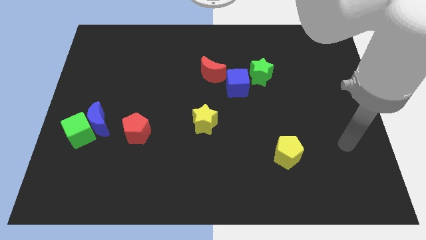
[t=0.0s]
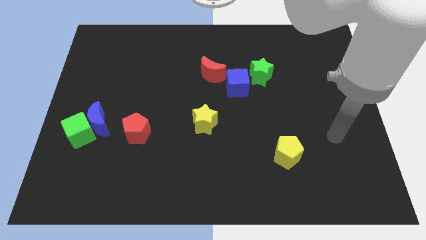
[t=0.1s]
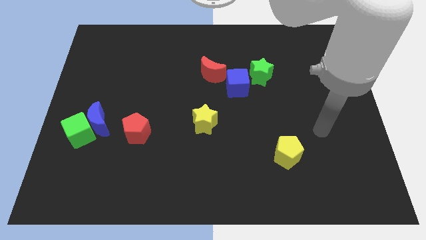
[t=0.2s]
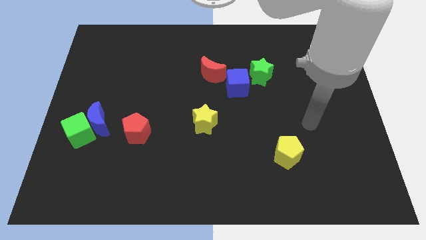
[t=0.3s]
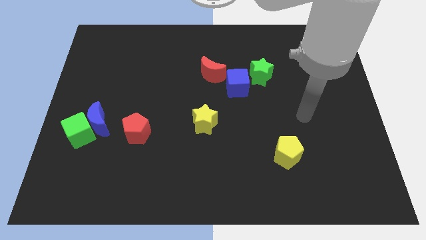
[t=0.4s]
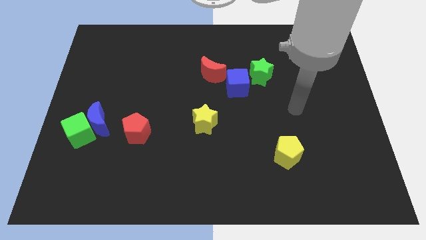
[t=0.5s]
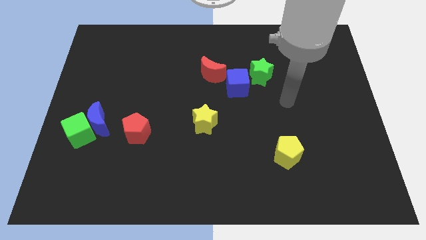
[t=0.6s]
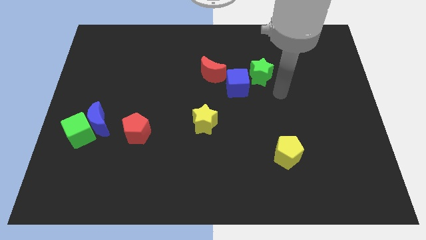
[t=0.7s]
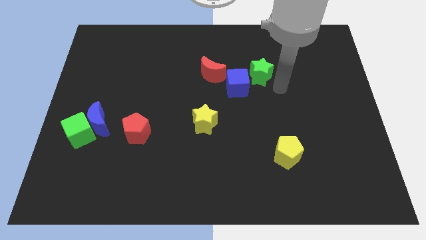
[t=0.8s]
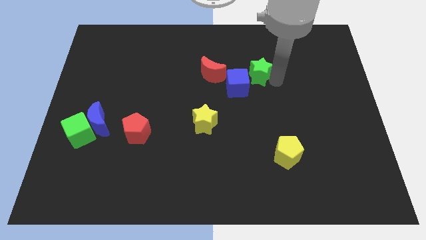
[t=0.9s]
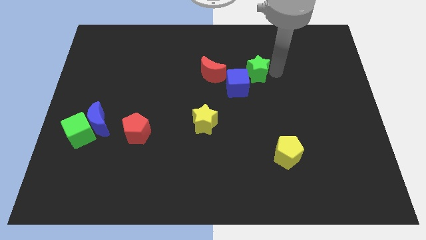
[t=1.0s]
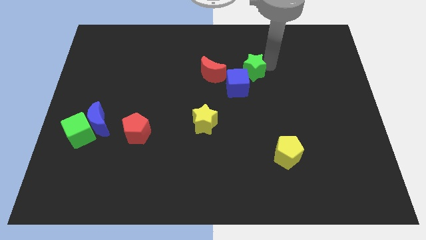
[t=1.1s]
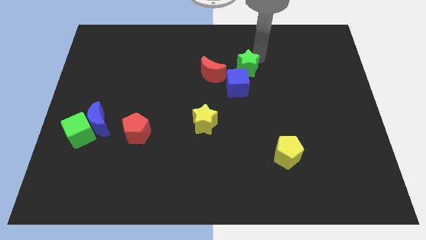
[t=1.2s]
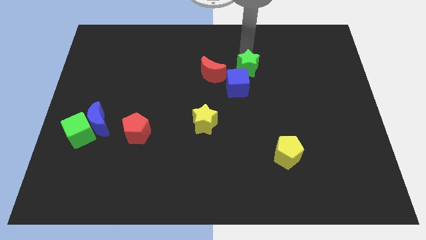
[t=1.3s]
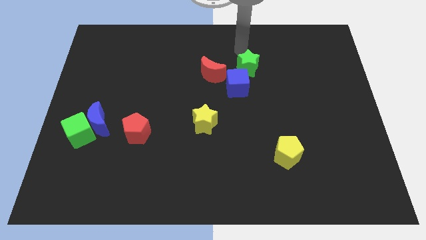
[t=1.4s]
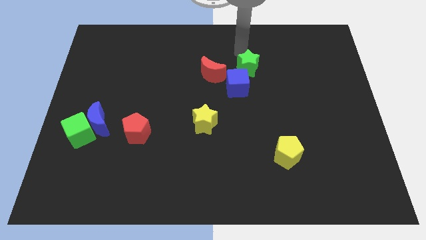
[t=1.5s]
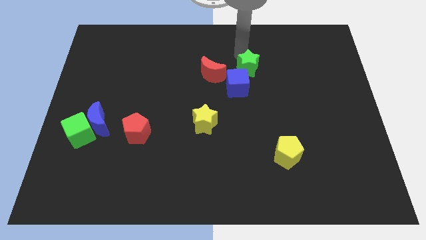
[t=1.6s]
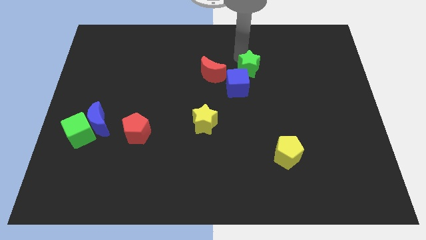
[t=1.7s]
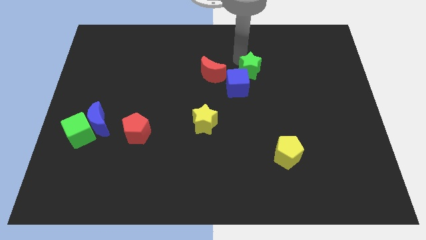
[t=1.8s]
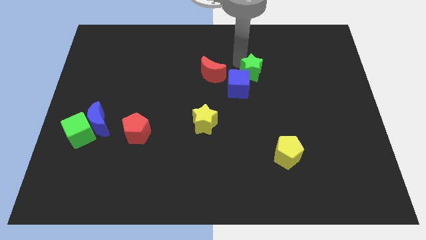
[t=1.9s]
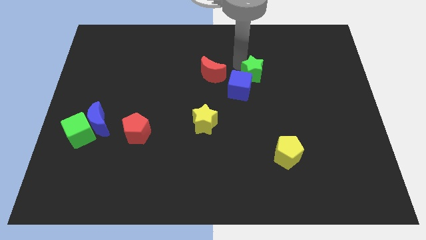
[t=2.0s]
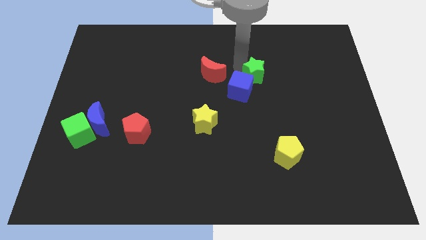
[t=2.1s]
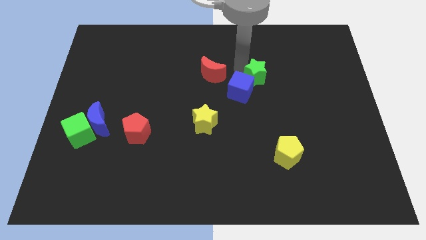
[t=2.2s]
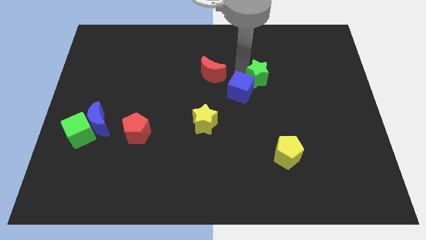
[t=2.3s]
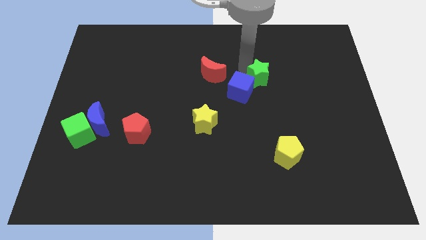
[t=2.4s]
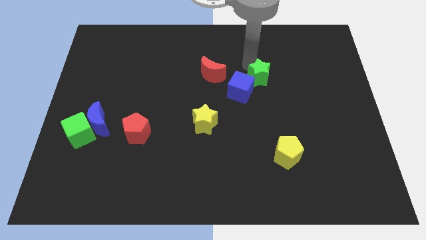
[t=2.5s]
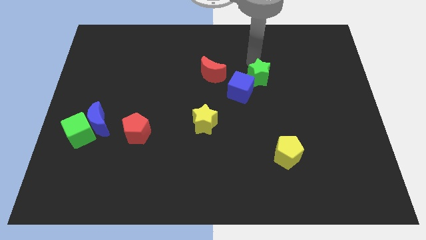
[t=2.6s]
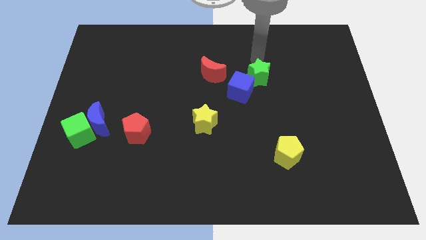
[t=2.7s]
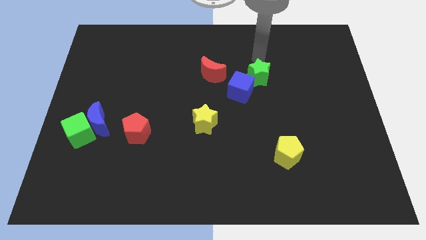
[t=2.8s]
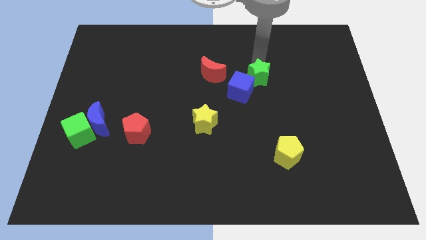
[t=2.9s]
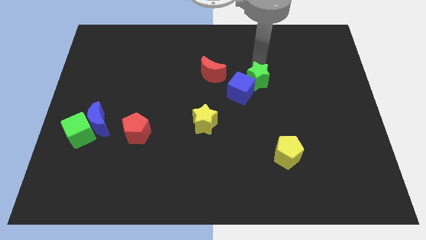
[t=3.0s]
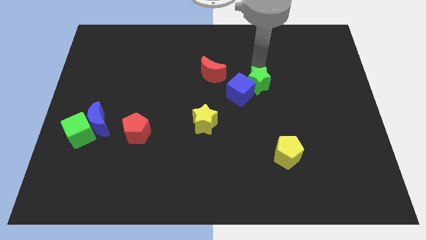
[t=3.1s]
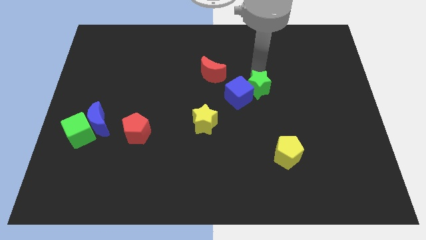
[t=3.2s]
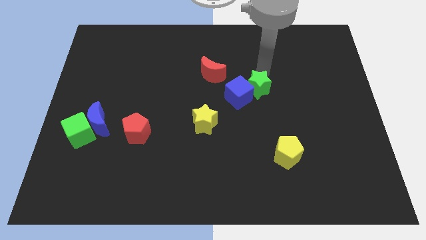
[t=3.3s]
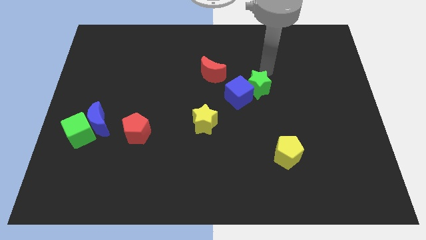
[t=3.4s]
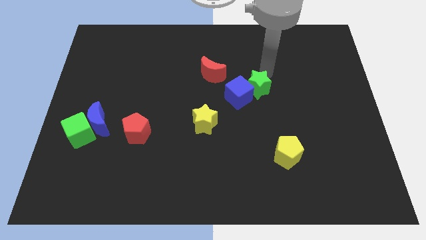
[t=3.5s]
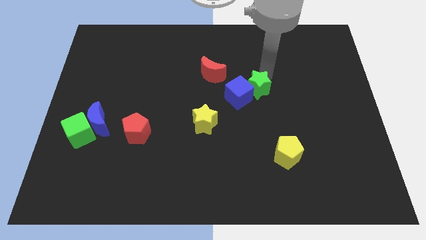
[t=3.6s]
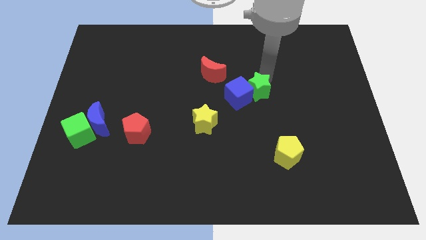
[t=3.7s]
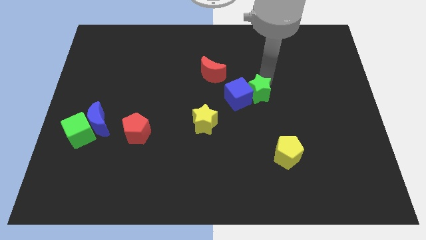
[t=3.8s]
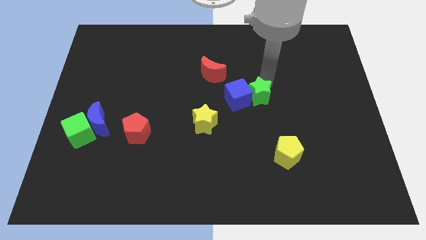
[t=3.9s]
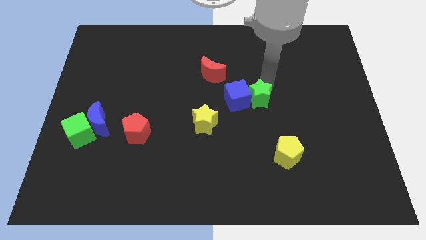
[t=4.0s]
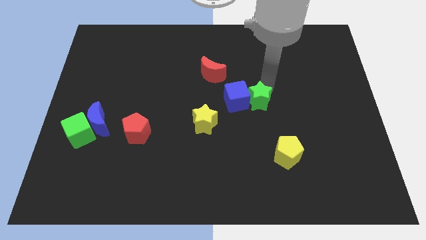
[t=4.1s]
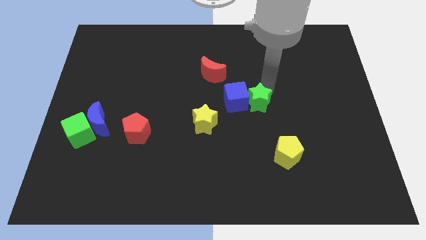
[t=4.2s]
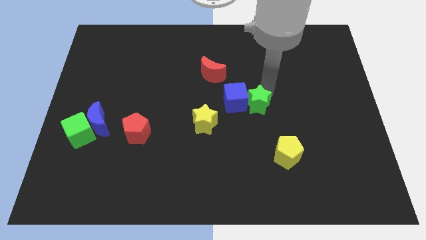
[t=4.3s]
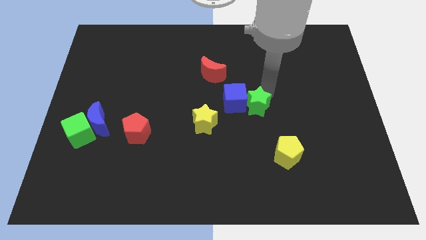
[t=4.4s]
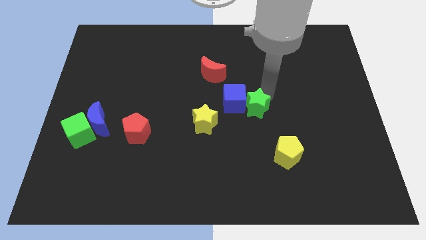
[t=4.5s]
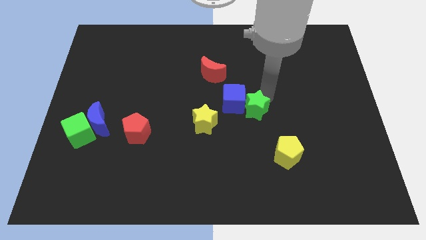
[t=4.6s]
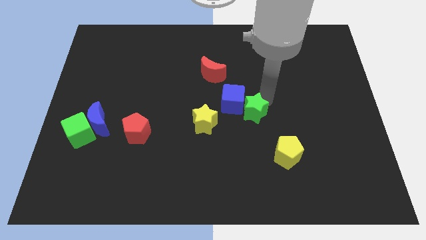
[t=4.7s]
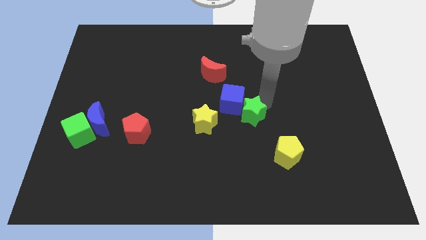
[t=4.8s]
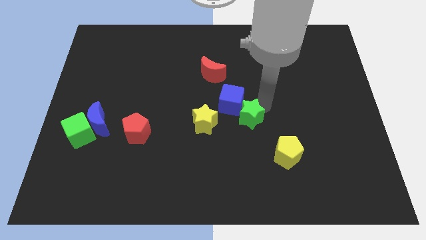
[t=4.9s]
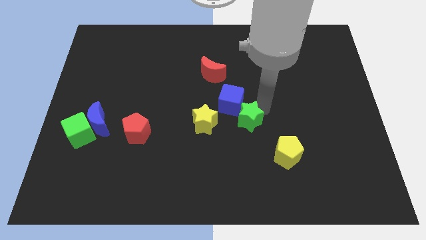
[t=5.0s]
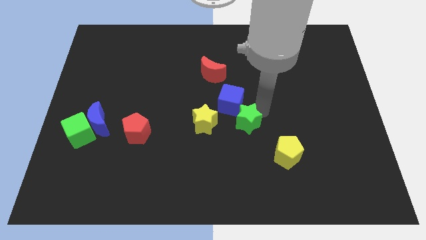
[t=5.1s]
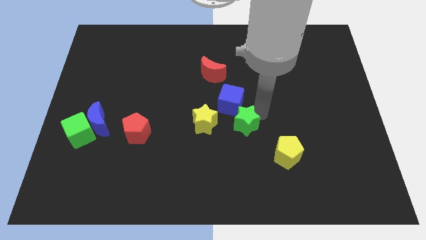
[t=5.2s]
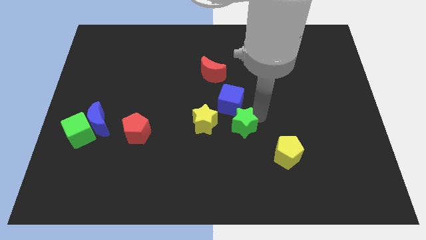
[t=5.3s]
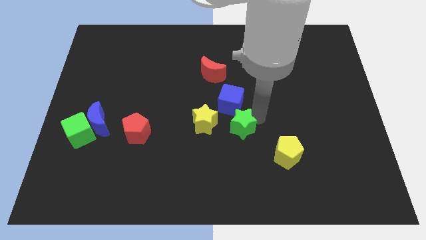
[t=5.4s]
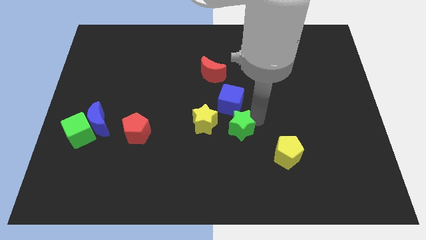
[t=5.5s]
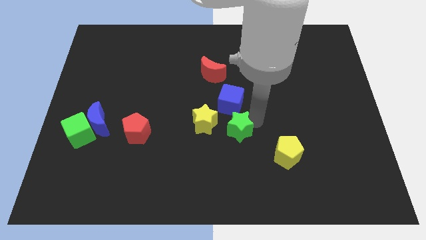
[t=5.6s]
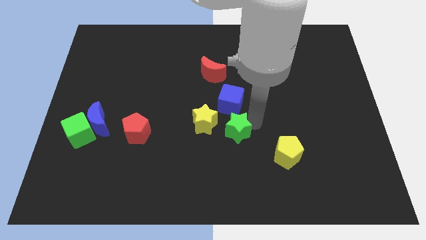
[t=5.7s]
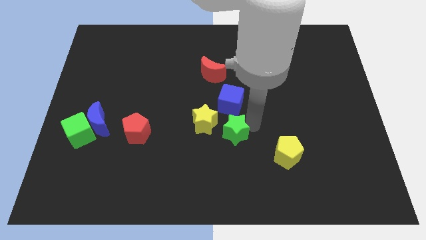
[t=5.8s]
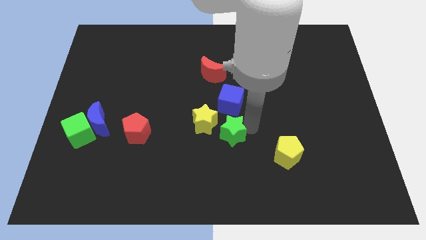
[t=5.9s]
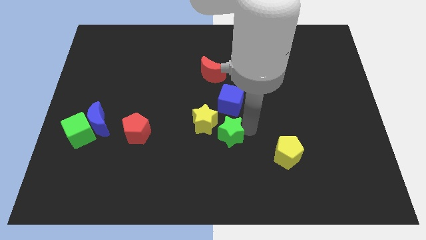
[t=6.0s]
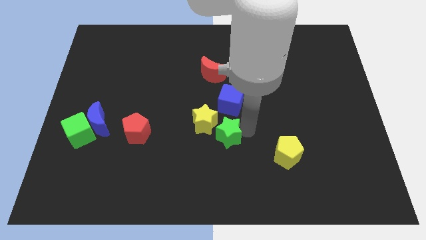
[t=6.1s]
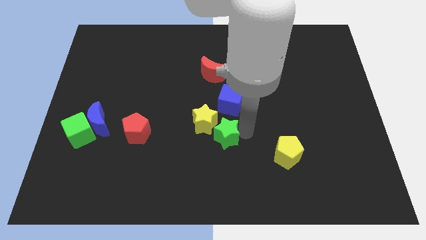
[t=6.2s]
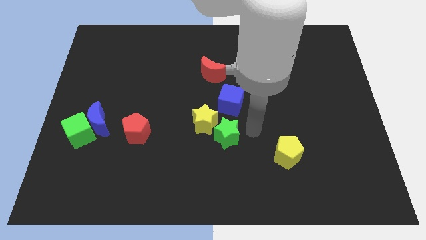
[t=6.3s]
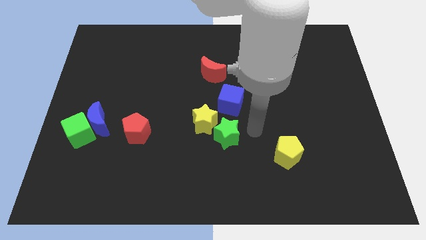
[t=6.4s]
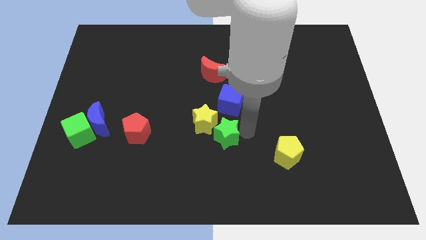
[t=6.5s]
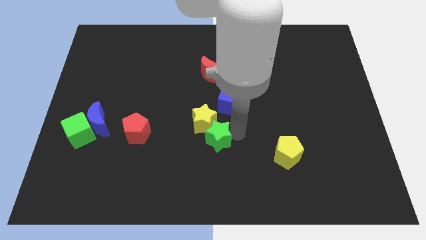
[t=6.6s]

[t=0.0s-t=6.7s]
move the green star downwards and left

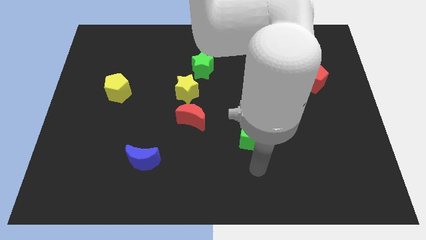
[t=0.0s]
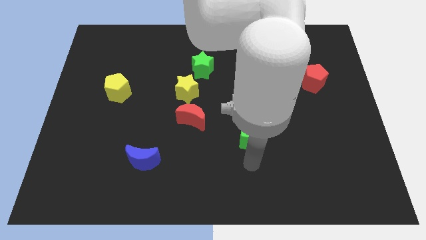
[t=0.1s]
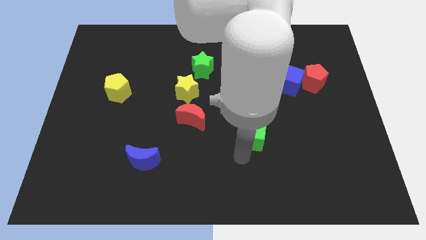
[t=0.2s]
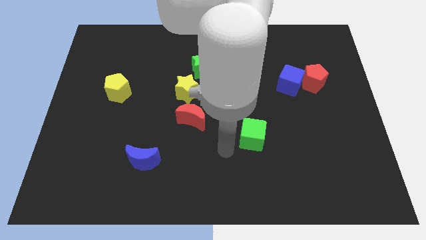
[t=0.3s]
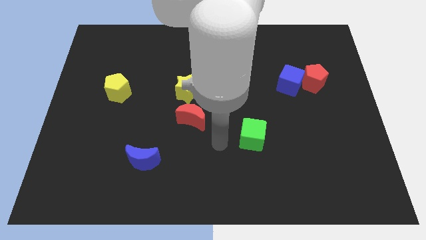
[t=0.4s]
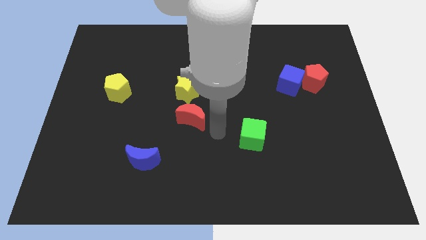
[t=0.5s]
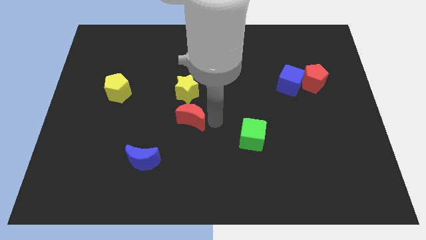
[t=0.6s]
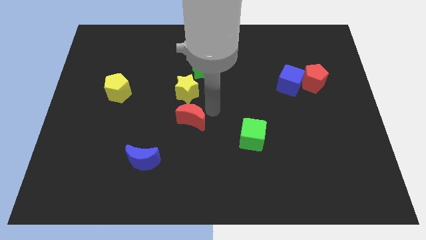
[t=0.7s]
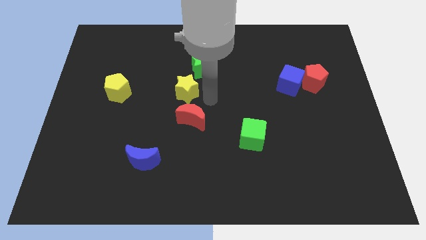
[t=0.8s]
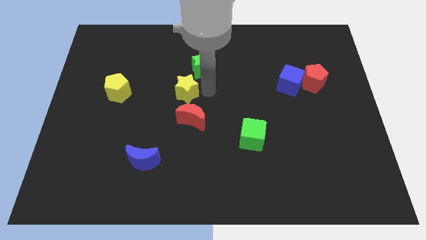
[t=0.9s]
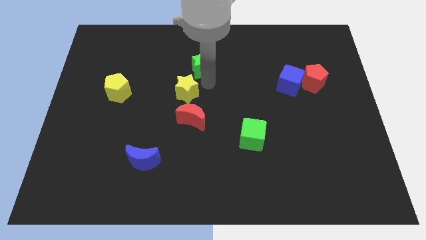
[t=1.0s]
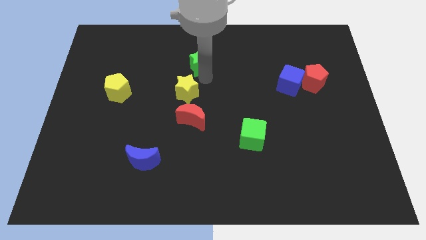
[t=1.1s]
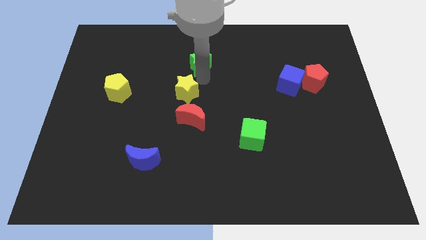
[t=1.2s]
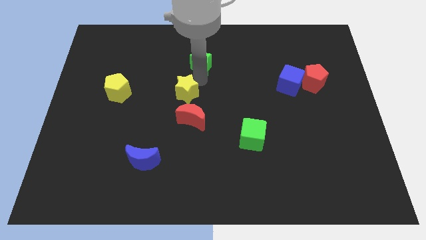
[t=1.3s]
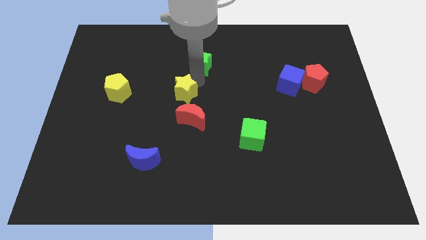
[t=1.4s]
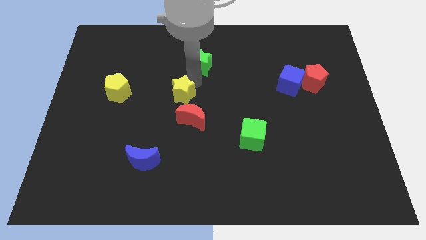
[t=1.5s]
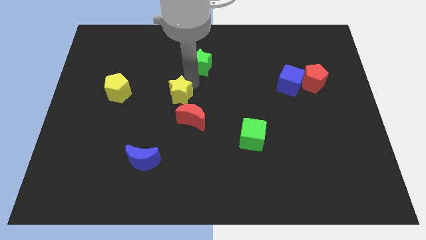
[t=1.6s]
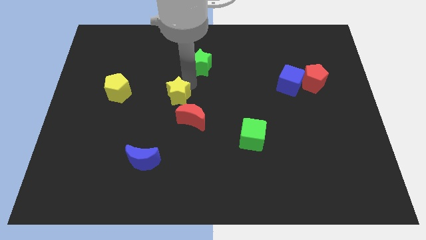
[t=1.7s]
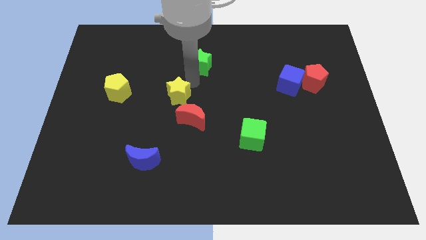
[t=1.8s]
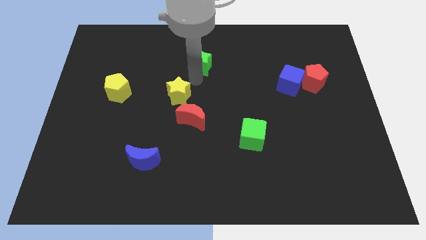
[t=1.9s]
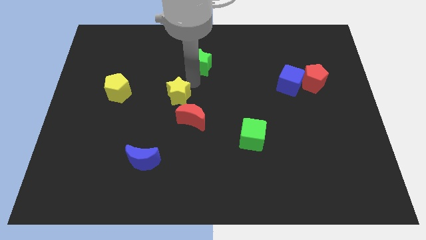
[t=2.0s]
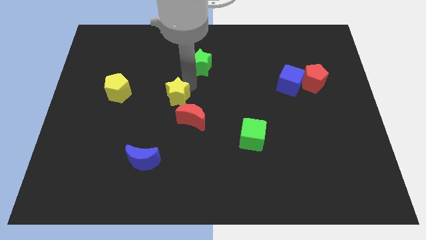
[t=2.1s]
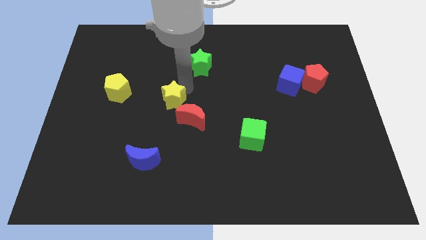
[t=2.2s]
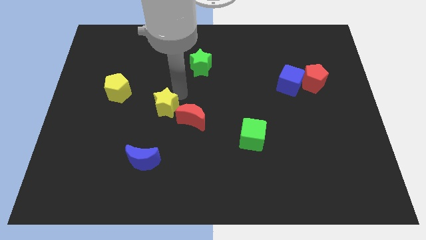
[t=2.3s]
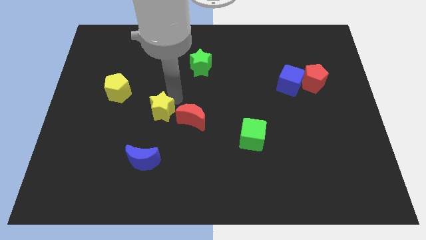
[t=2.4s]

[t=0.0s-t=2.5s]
move the yellow star somewhat diagonally downwards and left
